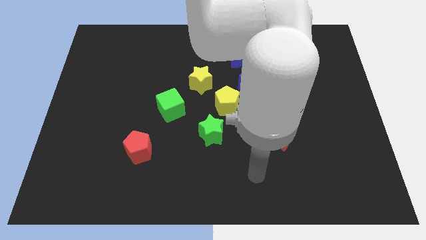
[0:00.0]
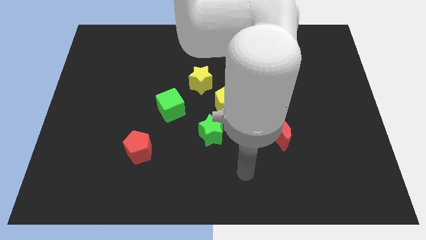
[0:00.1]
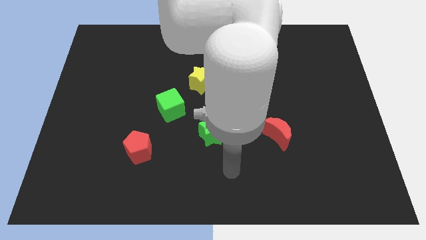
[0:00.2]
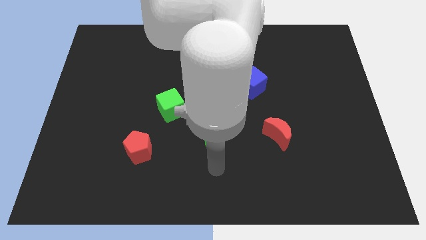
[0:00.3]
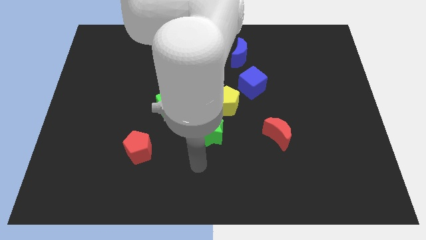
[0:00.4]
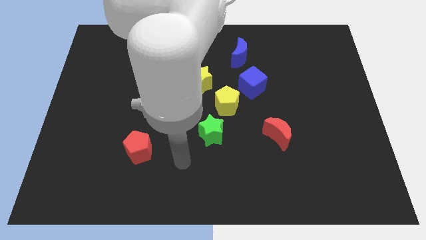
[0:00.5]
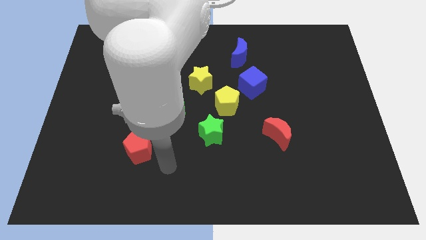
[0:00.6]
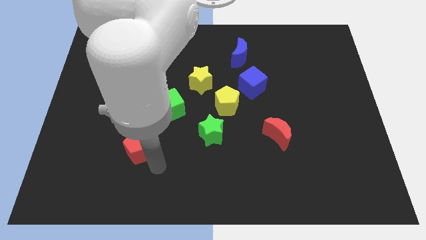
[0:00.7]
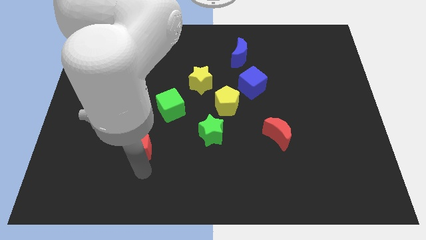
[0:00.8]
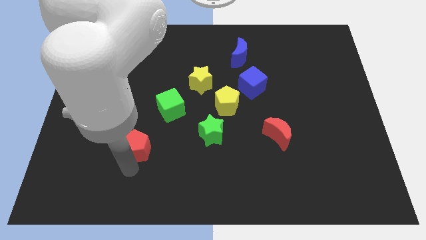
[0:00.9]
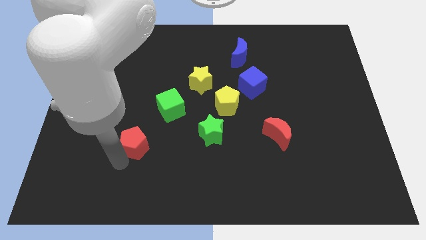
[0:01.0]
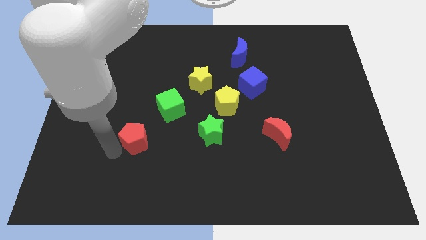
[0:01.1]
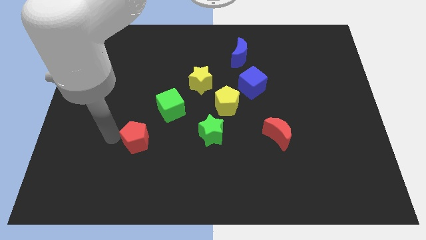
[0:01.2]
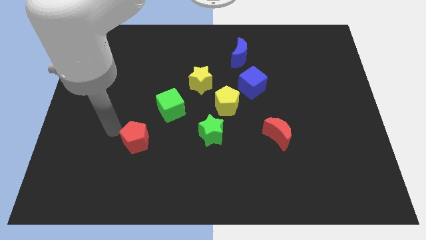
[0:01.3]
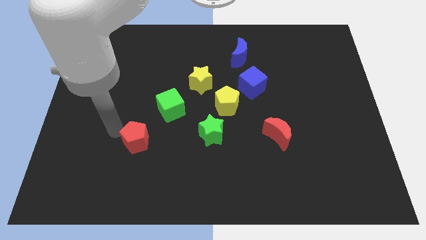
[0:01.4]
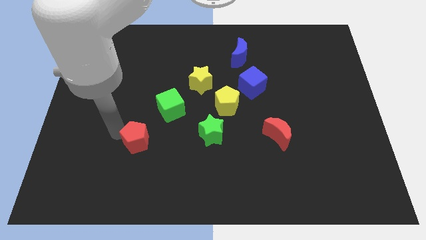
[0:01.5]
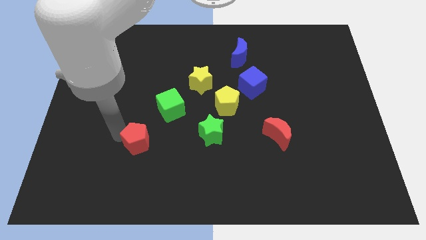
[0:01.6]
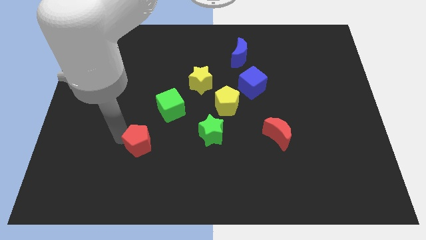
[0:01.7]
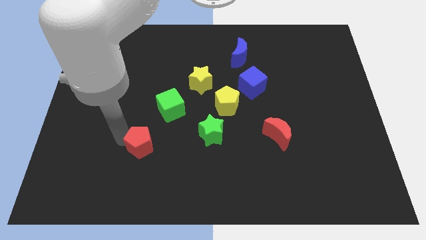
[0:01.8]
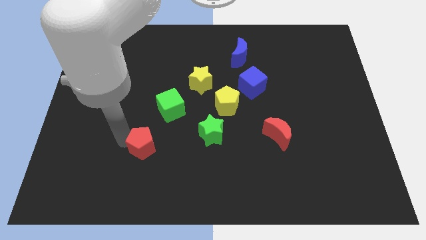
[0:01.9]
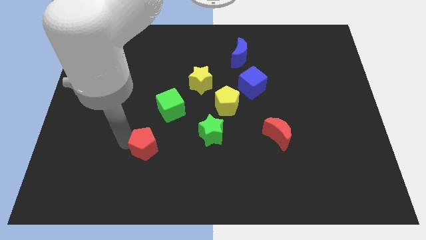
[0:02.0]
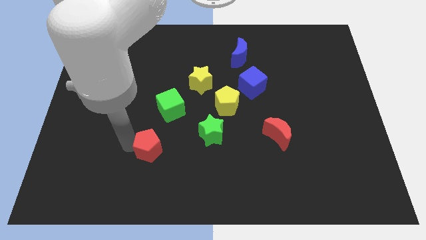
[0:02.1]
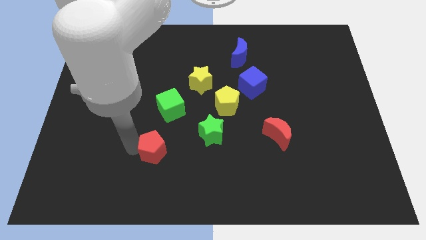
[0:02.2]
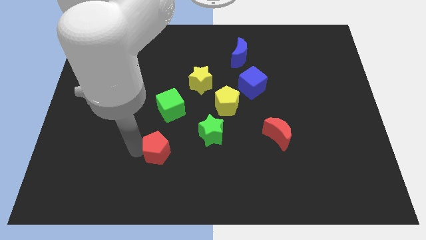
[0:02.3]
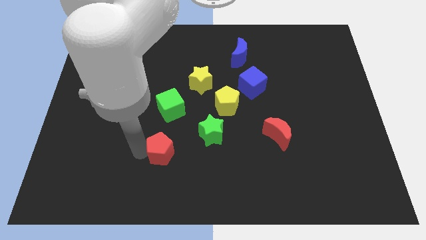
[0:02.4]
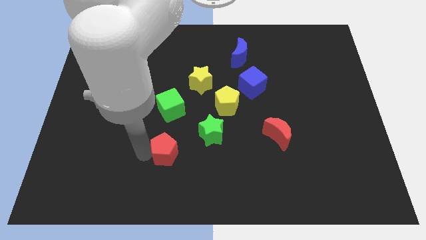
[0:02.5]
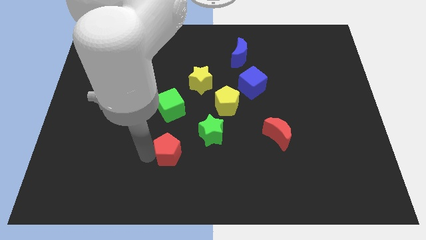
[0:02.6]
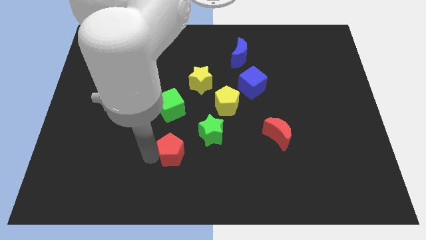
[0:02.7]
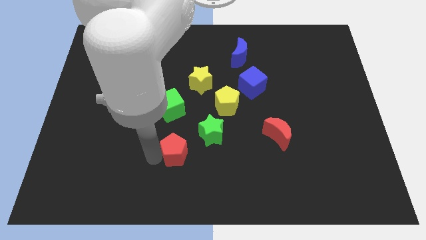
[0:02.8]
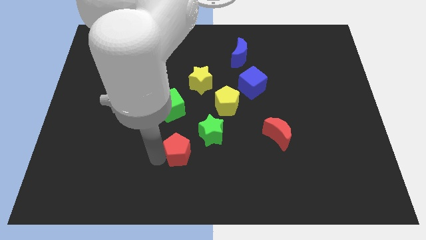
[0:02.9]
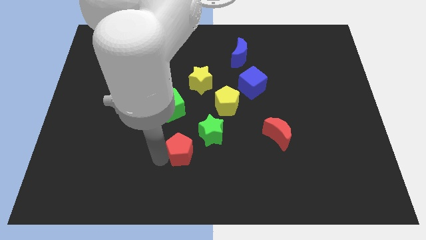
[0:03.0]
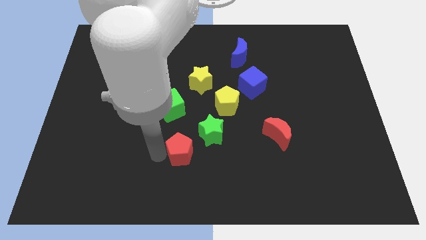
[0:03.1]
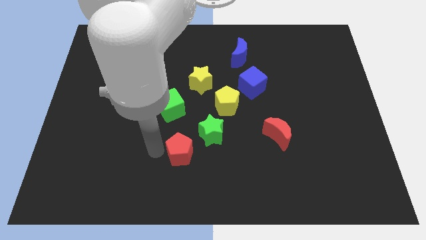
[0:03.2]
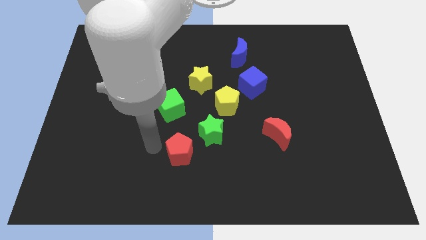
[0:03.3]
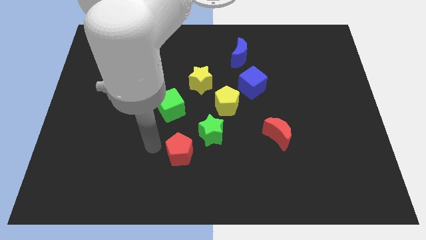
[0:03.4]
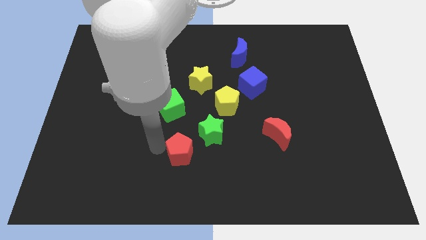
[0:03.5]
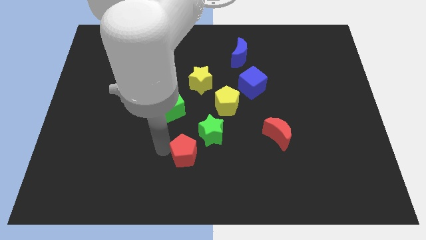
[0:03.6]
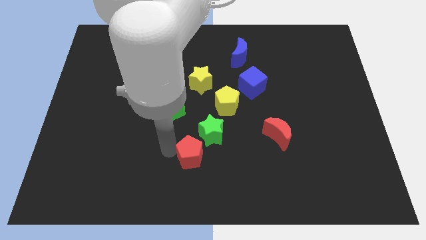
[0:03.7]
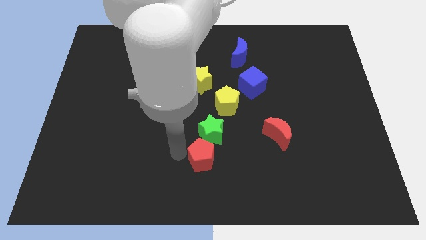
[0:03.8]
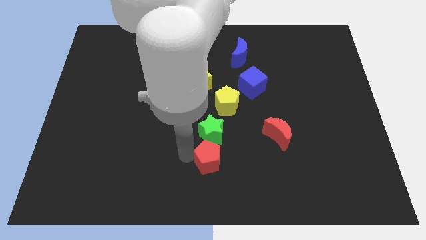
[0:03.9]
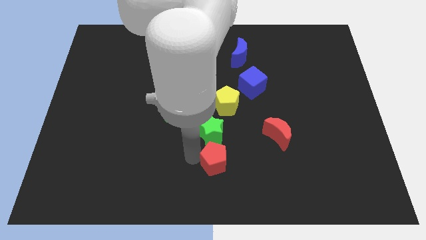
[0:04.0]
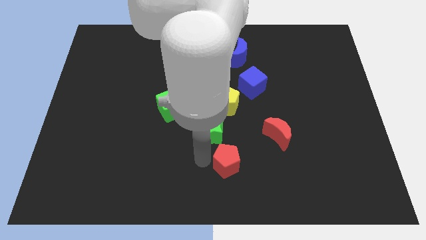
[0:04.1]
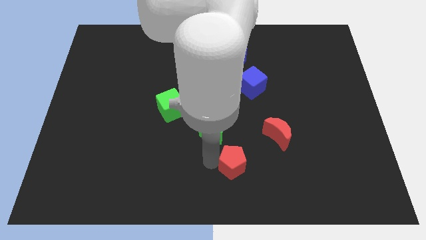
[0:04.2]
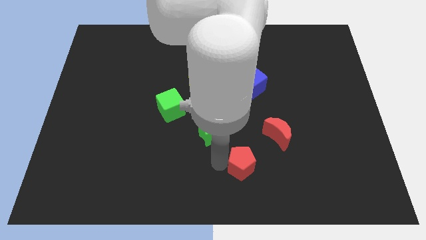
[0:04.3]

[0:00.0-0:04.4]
push the red pentagon to the right

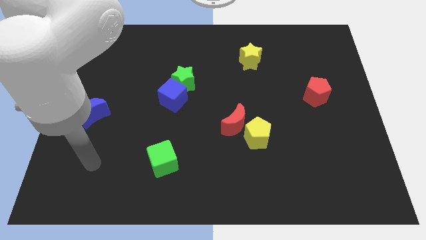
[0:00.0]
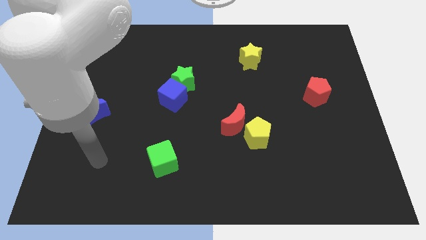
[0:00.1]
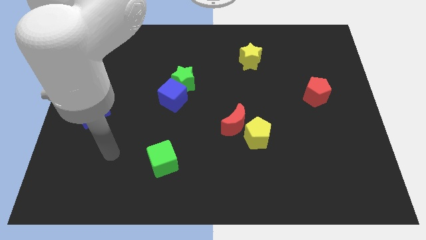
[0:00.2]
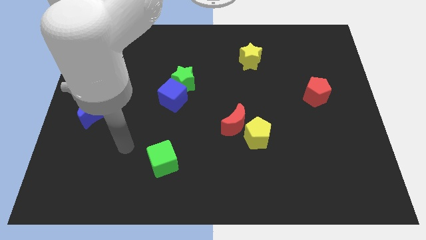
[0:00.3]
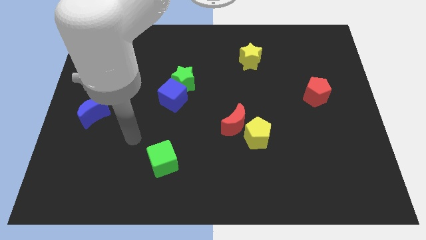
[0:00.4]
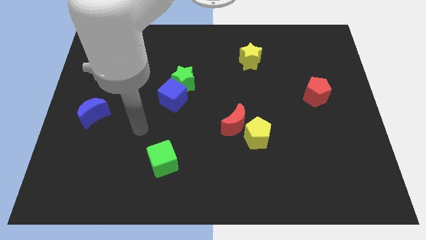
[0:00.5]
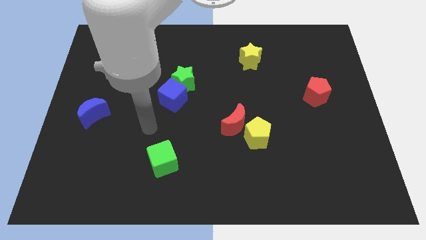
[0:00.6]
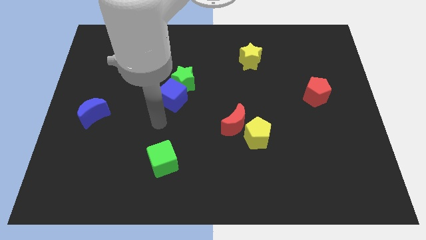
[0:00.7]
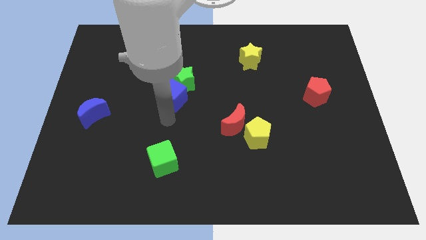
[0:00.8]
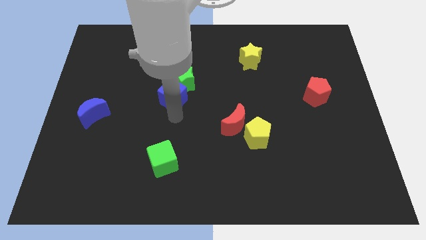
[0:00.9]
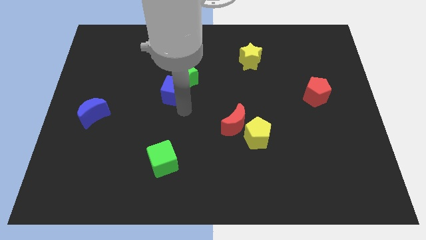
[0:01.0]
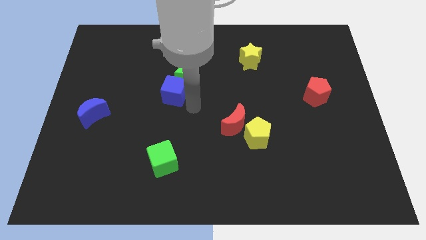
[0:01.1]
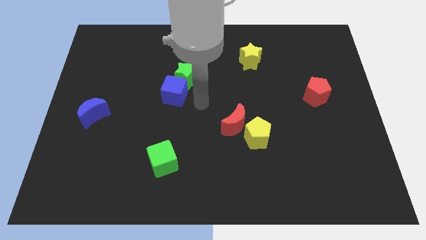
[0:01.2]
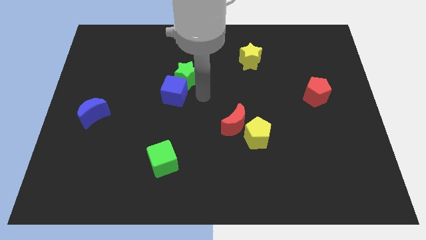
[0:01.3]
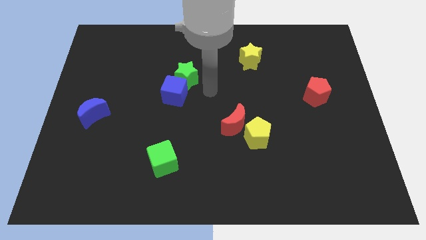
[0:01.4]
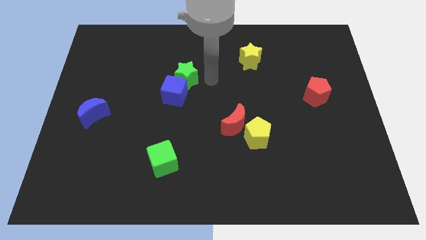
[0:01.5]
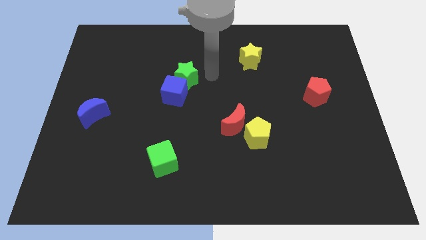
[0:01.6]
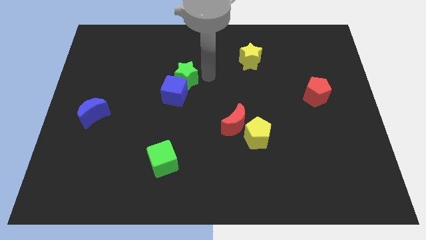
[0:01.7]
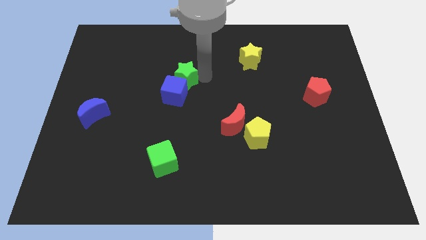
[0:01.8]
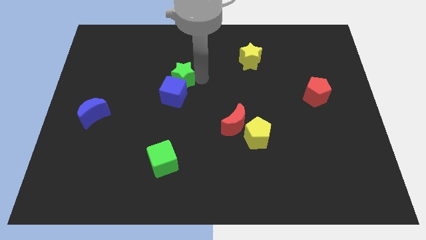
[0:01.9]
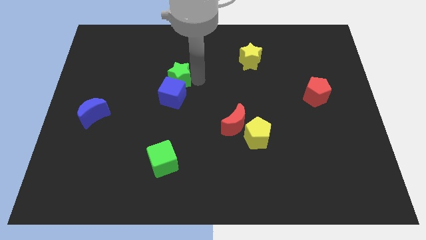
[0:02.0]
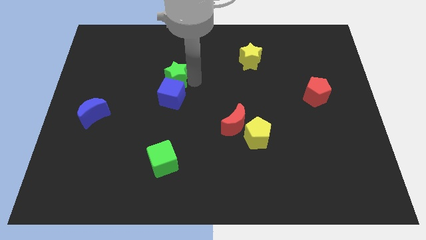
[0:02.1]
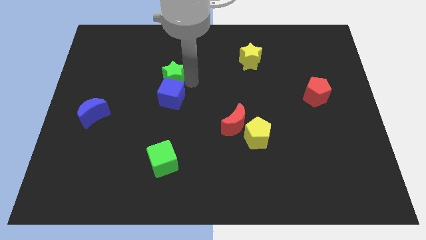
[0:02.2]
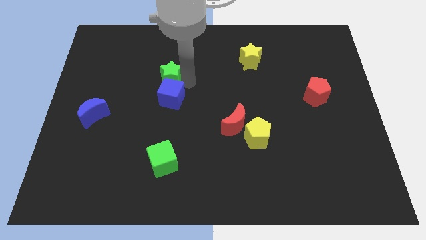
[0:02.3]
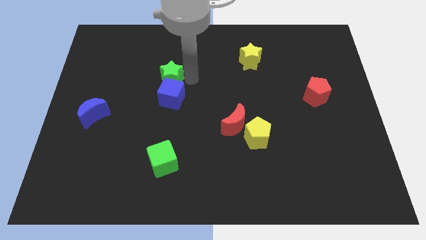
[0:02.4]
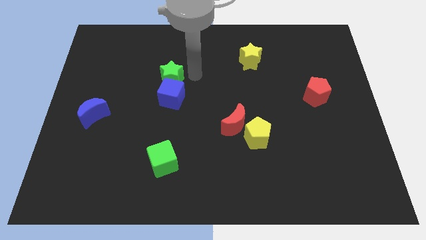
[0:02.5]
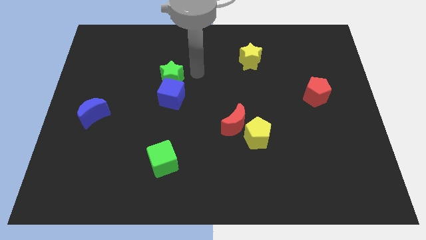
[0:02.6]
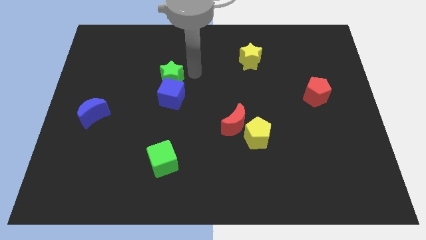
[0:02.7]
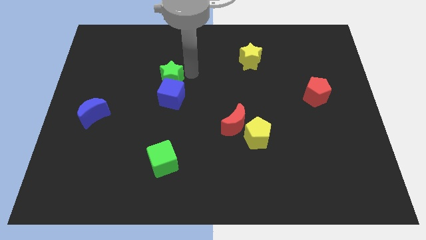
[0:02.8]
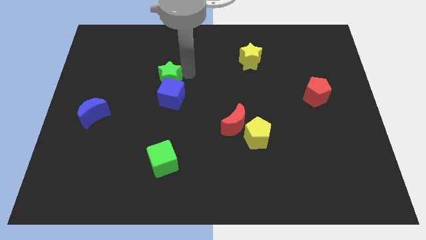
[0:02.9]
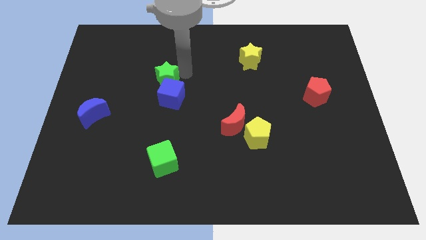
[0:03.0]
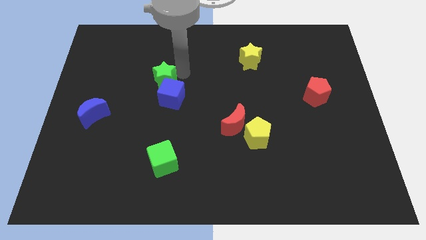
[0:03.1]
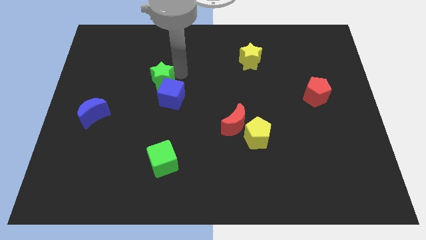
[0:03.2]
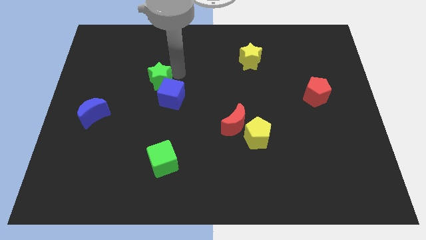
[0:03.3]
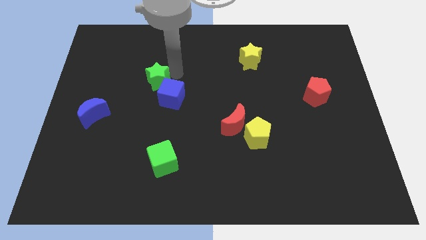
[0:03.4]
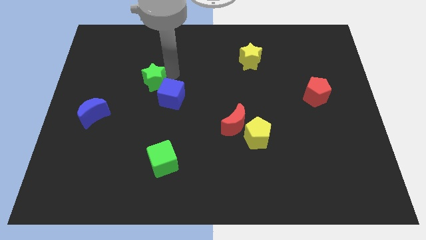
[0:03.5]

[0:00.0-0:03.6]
move the green star a bit left
